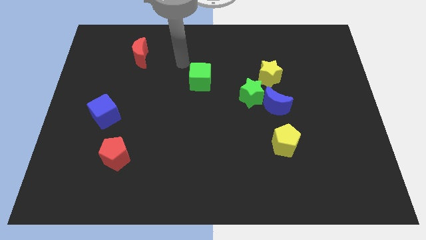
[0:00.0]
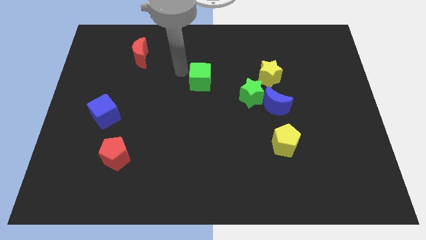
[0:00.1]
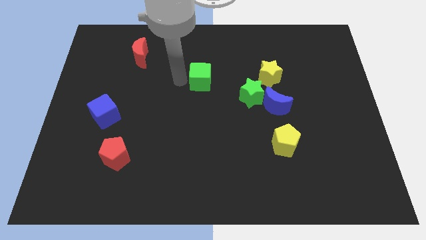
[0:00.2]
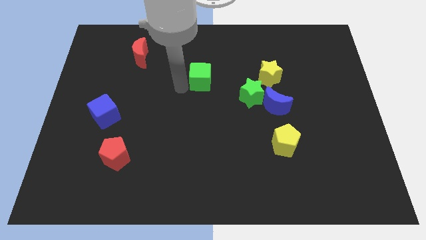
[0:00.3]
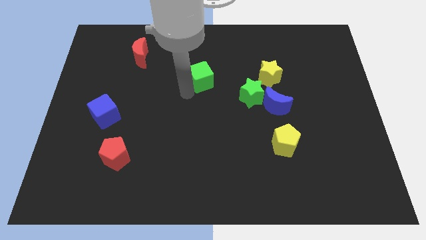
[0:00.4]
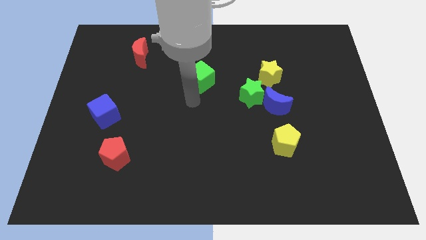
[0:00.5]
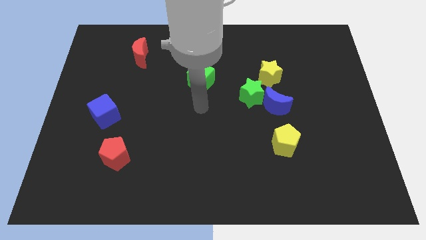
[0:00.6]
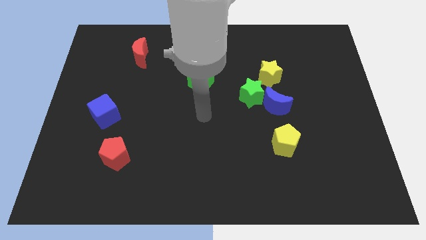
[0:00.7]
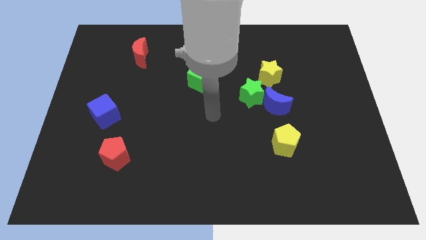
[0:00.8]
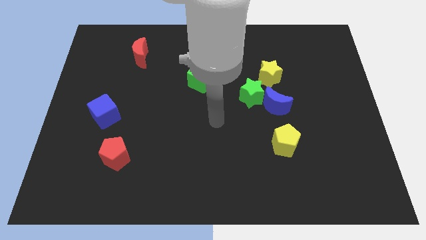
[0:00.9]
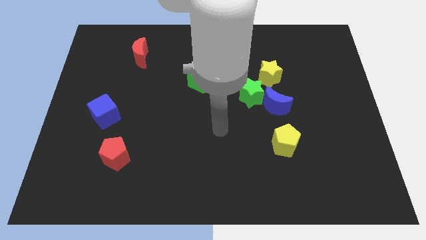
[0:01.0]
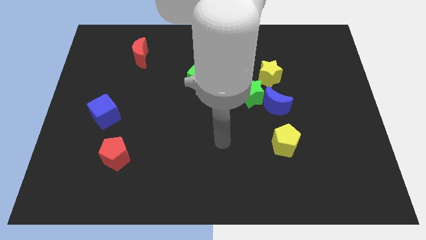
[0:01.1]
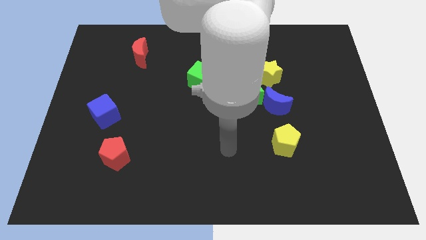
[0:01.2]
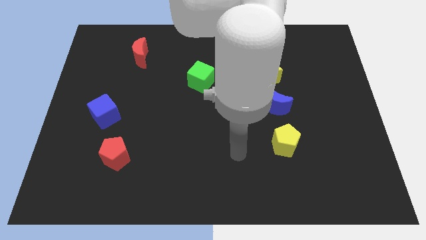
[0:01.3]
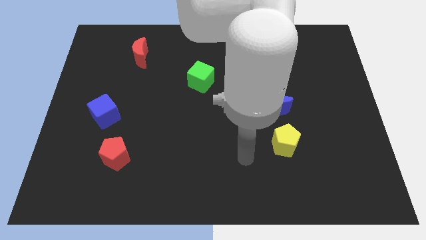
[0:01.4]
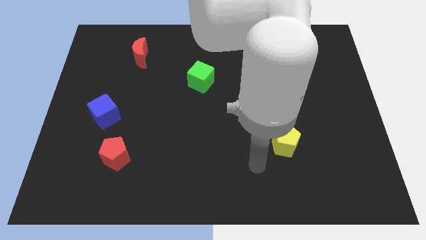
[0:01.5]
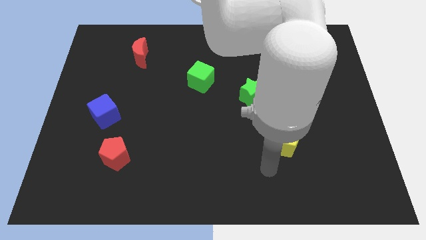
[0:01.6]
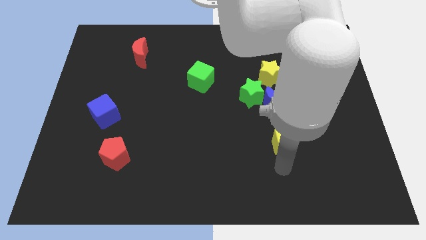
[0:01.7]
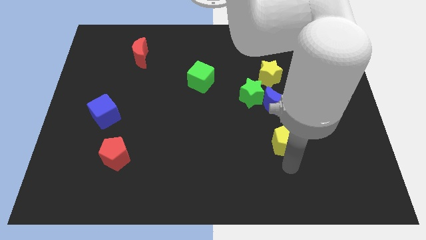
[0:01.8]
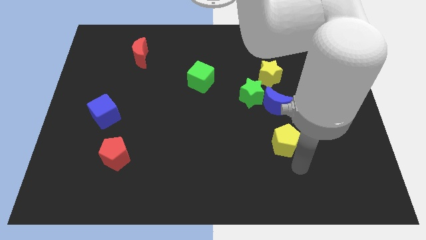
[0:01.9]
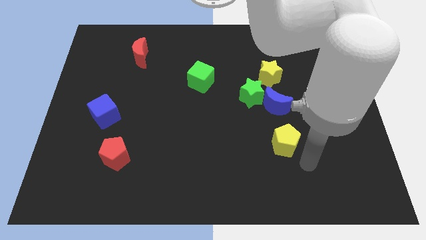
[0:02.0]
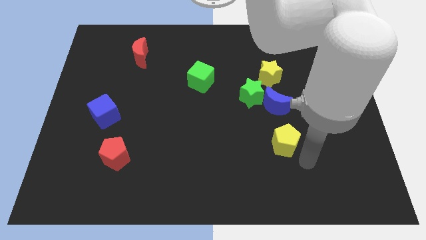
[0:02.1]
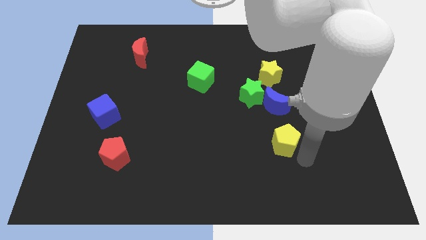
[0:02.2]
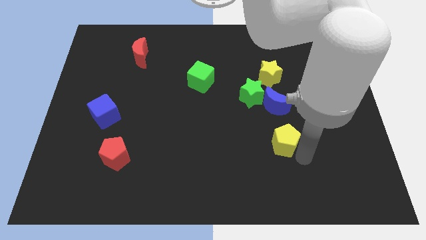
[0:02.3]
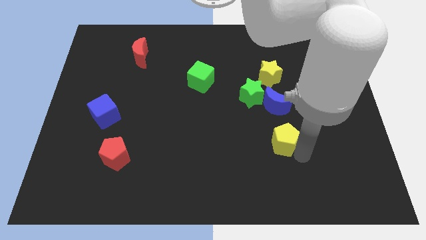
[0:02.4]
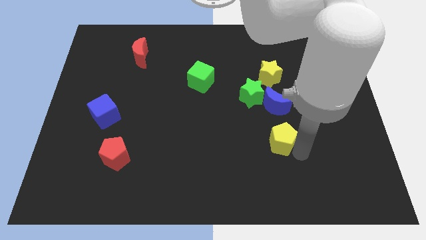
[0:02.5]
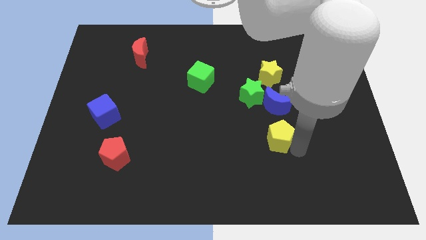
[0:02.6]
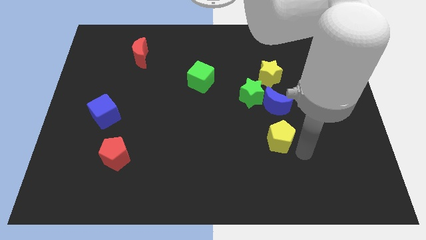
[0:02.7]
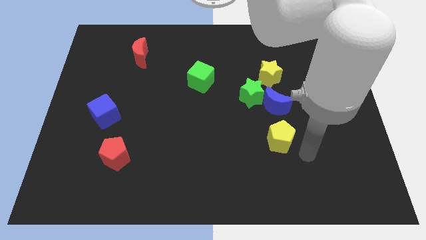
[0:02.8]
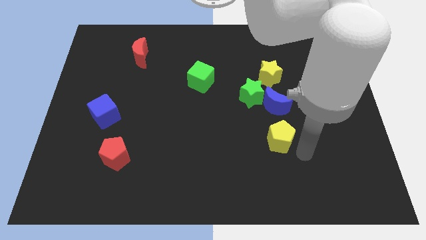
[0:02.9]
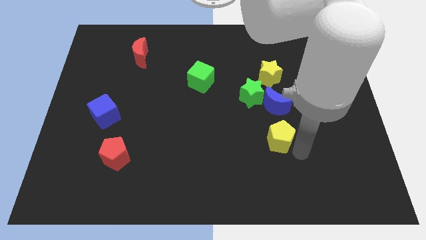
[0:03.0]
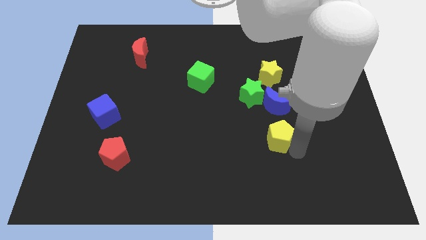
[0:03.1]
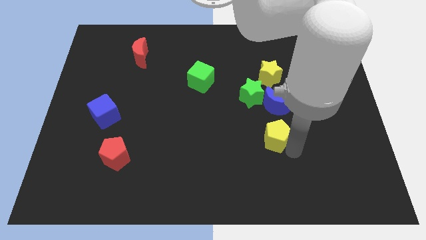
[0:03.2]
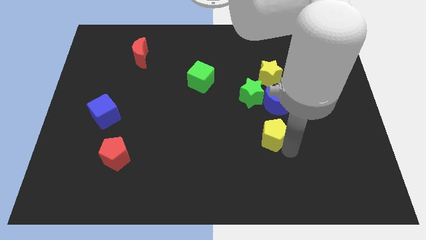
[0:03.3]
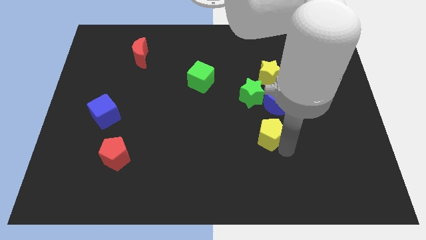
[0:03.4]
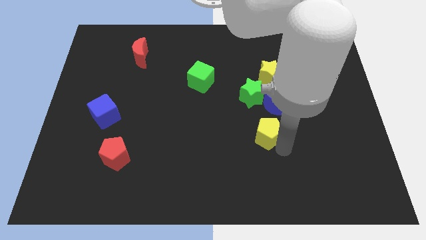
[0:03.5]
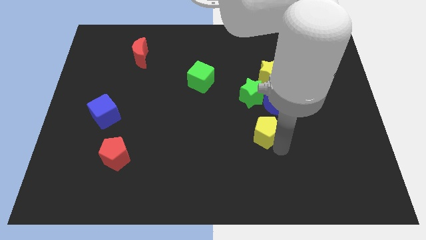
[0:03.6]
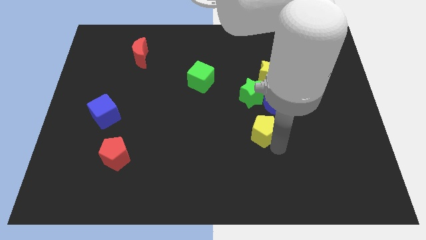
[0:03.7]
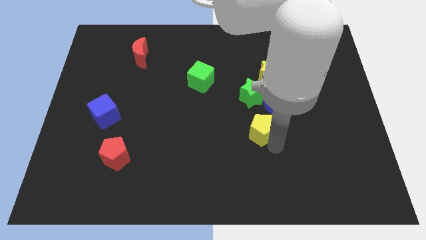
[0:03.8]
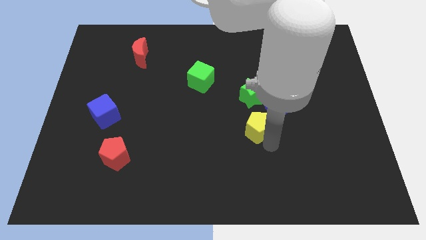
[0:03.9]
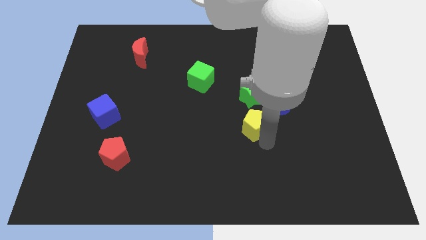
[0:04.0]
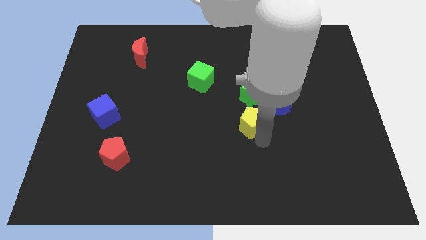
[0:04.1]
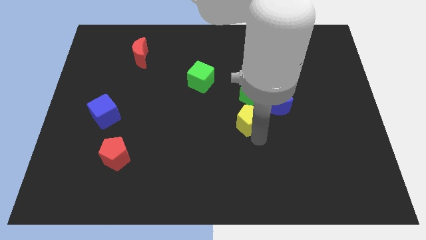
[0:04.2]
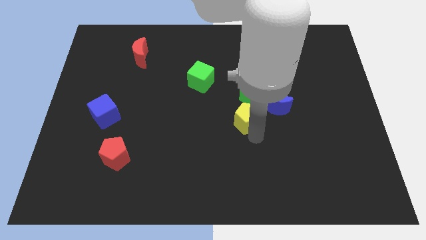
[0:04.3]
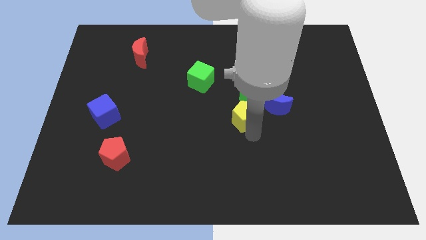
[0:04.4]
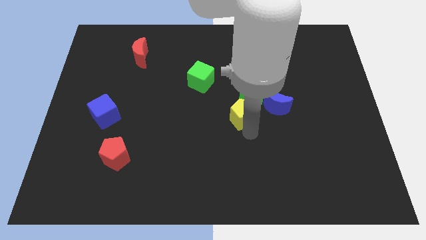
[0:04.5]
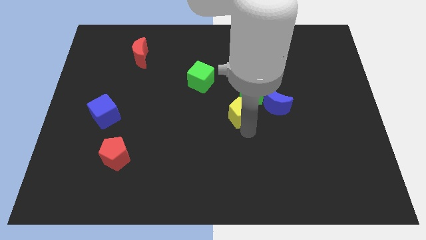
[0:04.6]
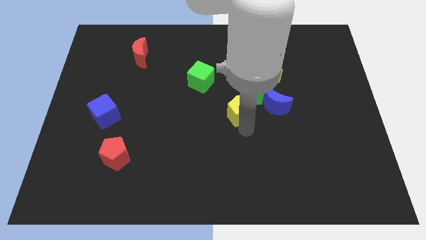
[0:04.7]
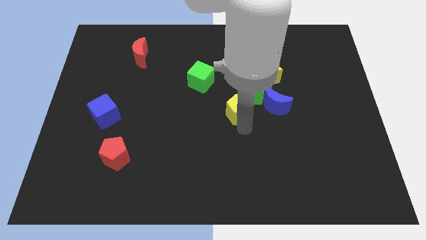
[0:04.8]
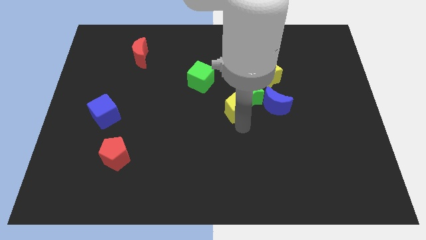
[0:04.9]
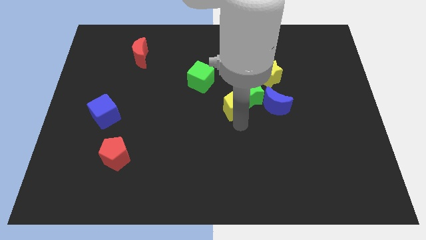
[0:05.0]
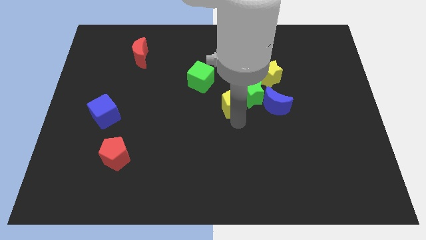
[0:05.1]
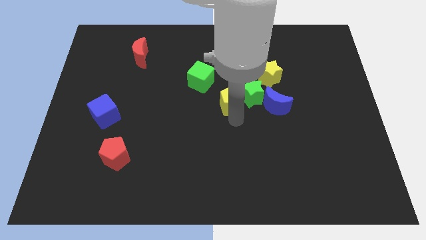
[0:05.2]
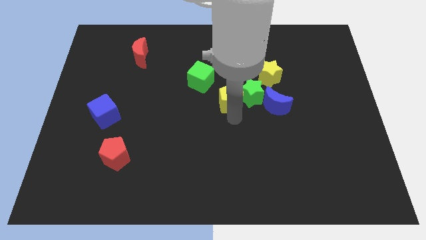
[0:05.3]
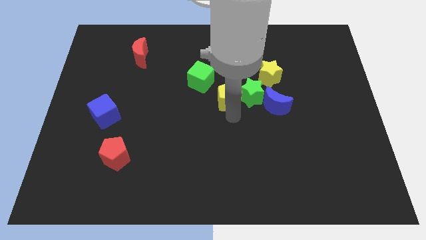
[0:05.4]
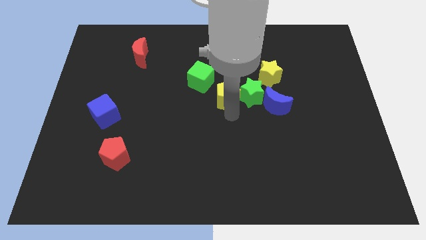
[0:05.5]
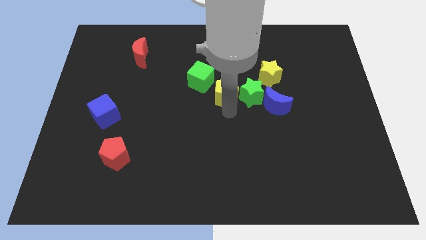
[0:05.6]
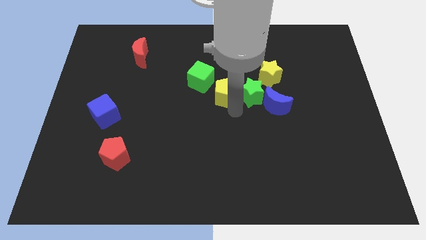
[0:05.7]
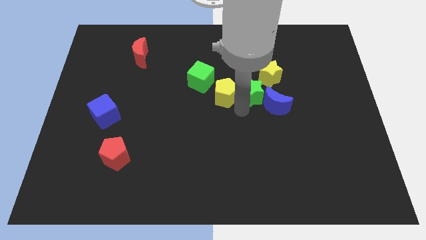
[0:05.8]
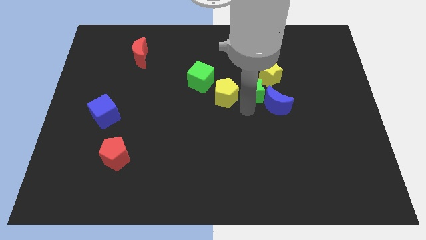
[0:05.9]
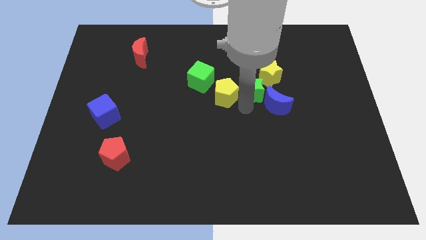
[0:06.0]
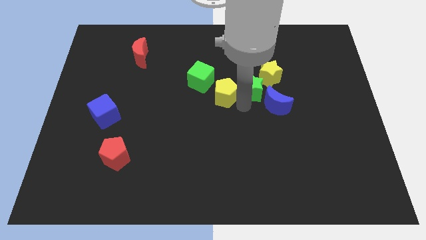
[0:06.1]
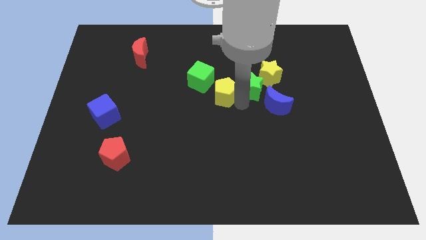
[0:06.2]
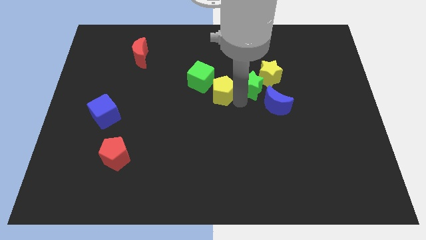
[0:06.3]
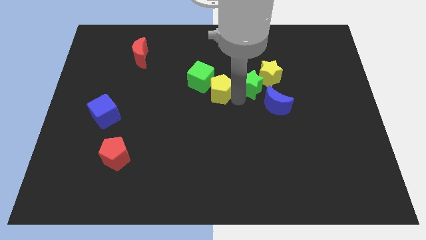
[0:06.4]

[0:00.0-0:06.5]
put the yellow pentagon to the green cube

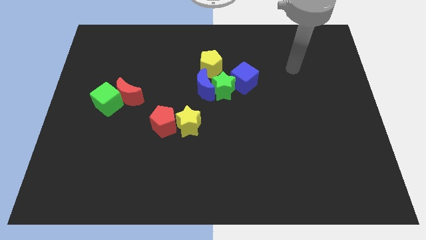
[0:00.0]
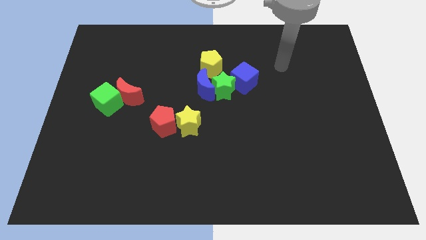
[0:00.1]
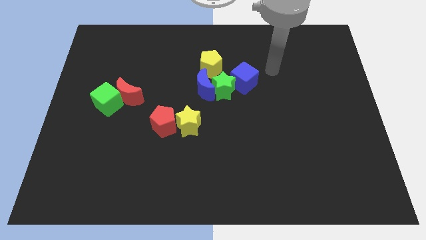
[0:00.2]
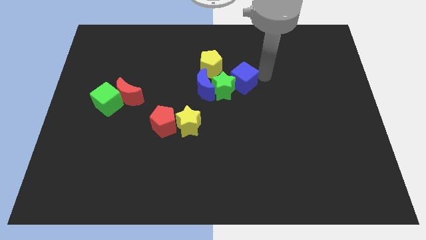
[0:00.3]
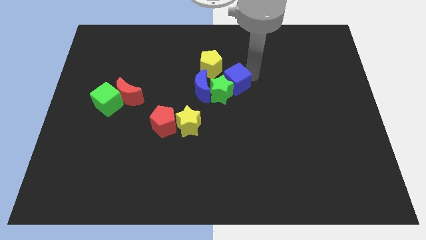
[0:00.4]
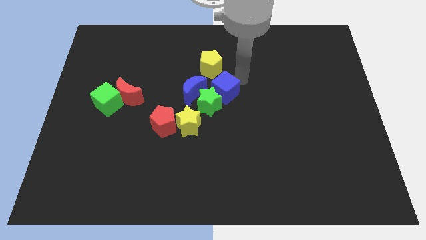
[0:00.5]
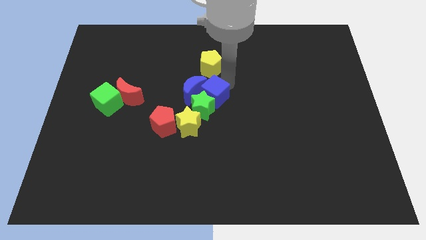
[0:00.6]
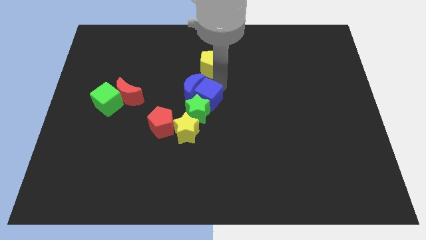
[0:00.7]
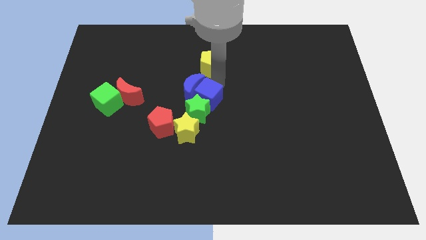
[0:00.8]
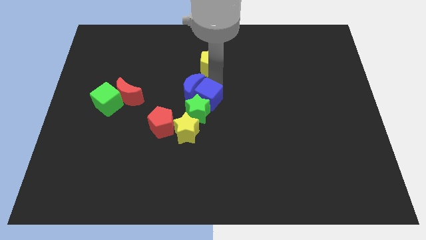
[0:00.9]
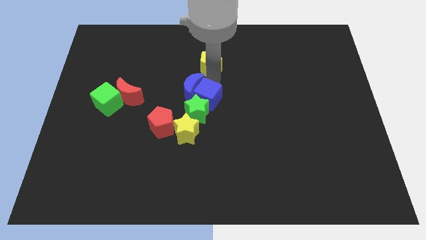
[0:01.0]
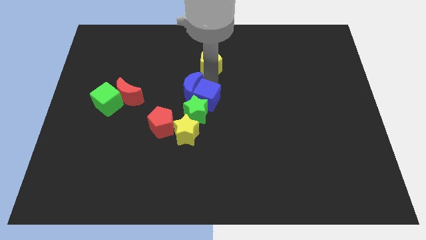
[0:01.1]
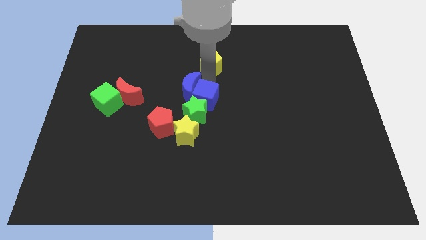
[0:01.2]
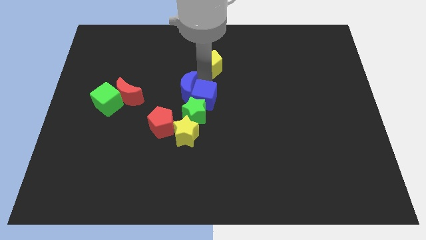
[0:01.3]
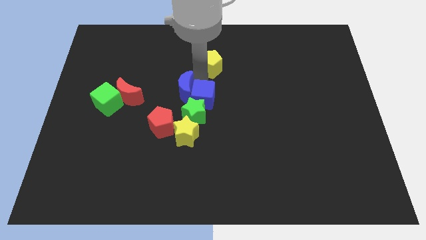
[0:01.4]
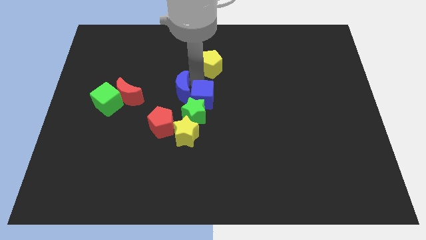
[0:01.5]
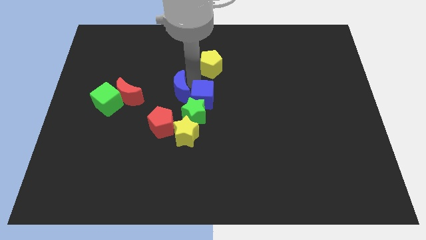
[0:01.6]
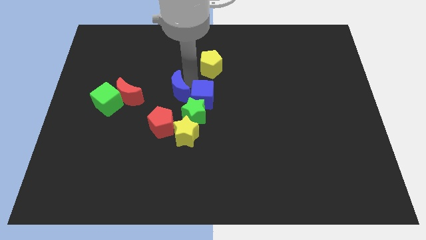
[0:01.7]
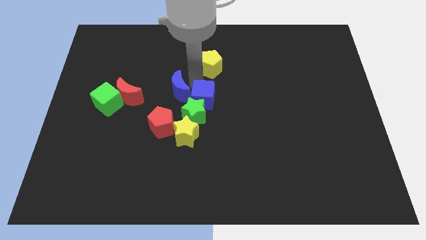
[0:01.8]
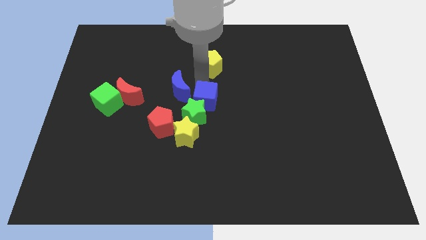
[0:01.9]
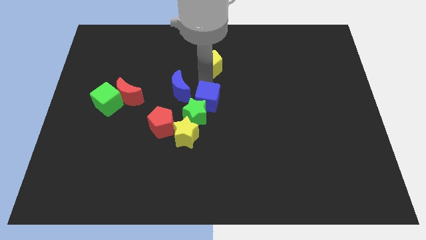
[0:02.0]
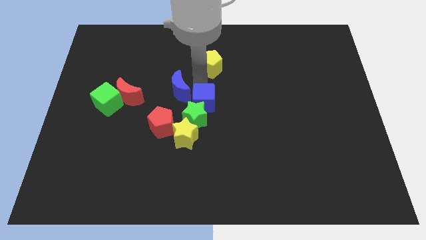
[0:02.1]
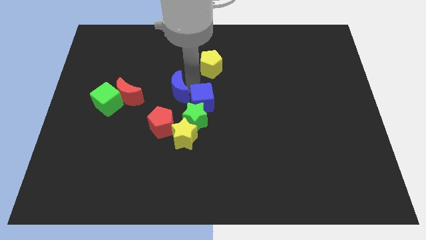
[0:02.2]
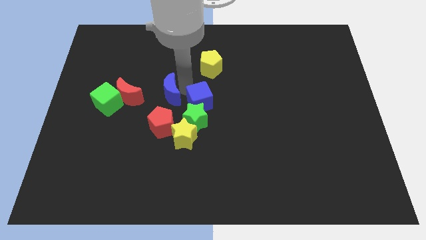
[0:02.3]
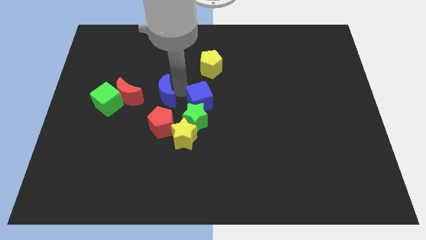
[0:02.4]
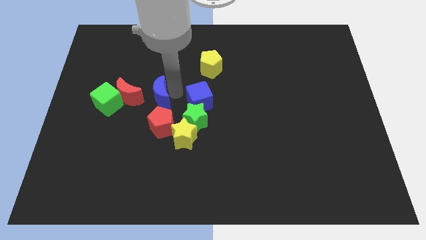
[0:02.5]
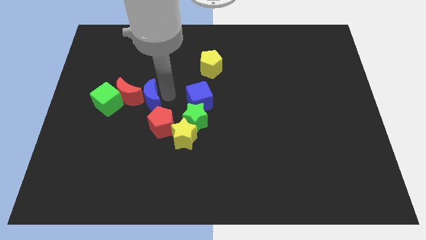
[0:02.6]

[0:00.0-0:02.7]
slide the blue moon to the red moon
